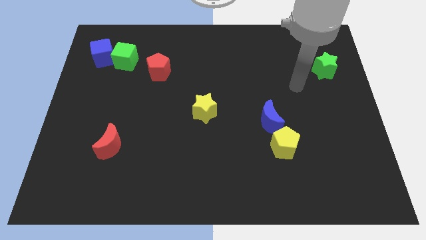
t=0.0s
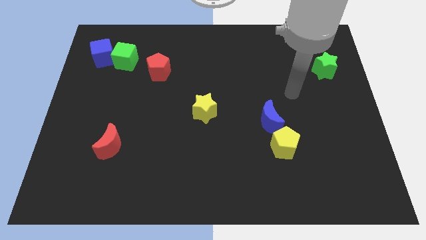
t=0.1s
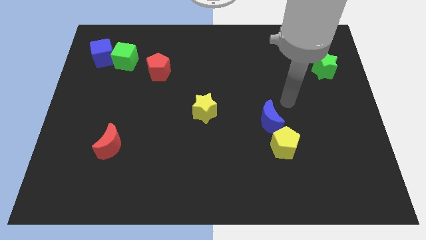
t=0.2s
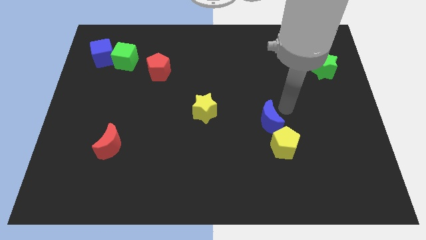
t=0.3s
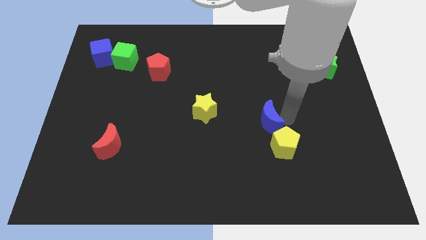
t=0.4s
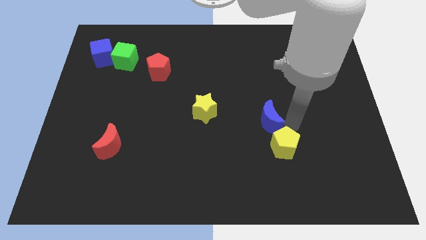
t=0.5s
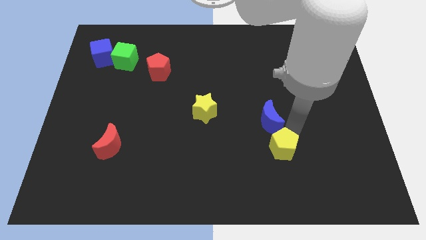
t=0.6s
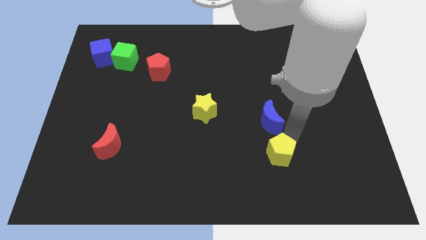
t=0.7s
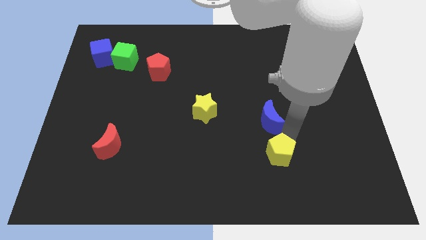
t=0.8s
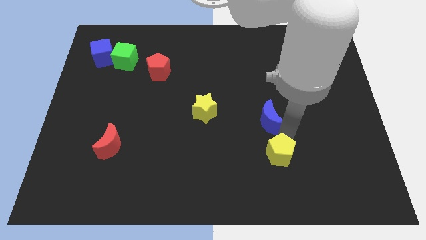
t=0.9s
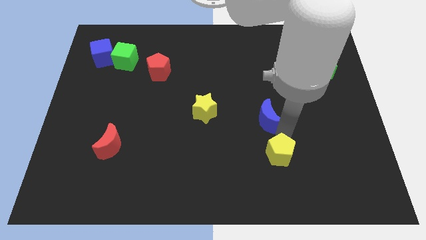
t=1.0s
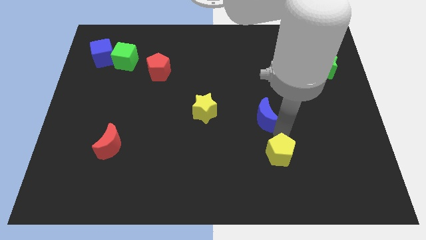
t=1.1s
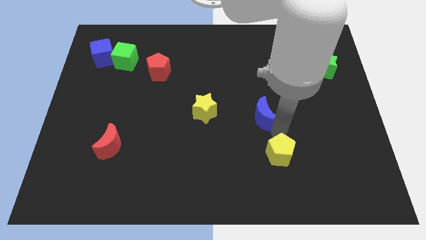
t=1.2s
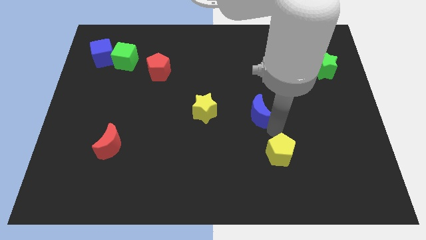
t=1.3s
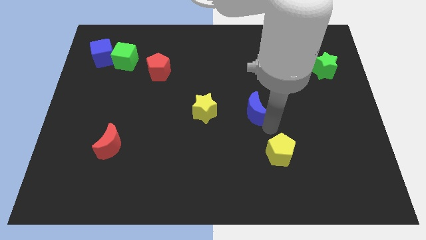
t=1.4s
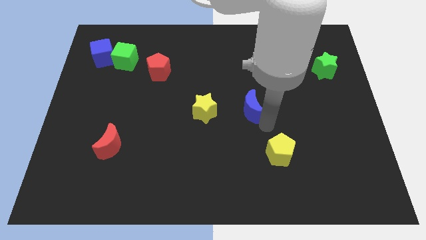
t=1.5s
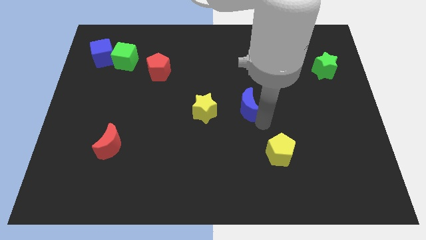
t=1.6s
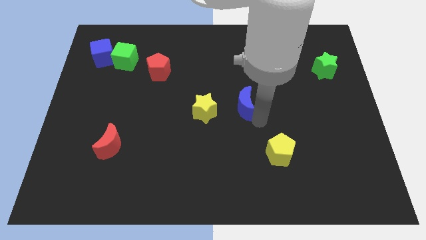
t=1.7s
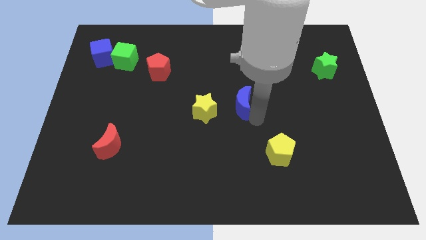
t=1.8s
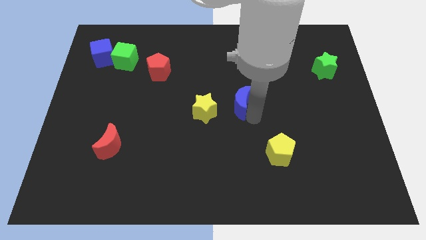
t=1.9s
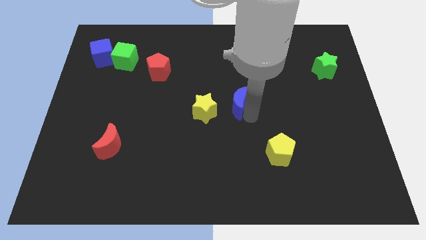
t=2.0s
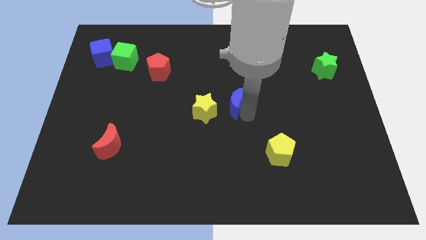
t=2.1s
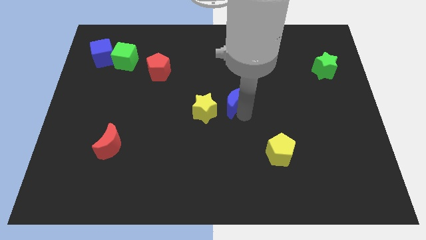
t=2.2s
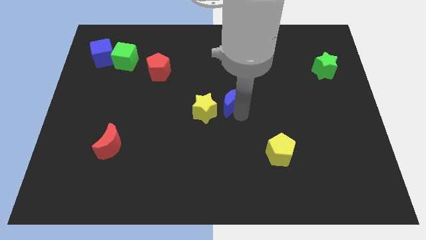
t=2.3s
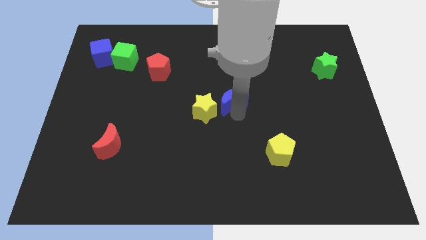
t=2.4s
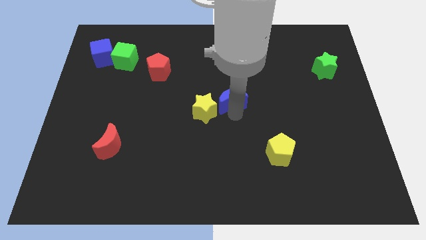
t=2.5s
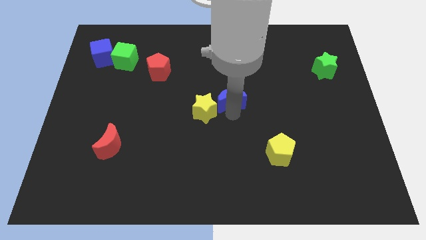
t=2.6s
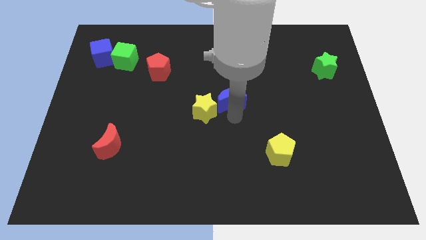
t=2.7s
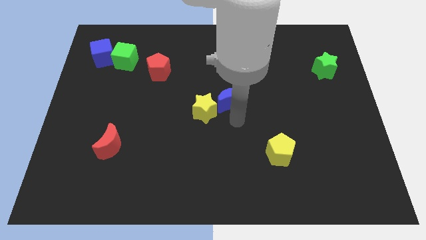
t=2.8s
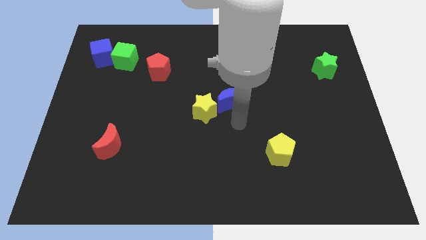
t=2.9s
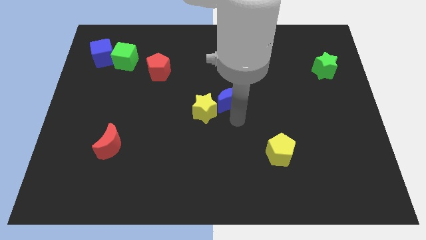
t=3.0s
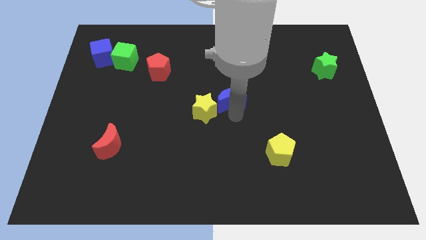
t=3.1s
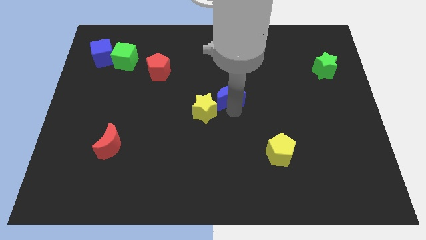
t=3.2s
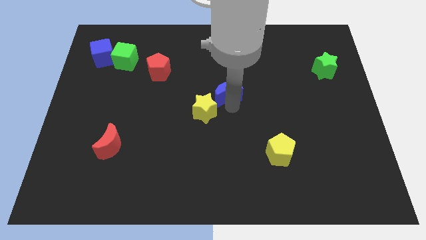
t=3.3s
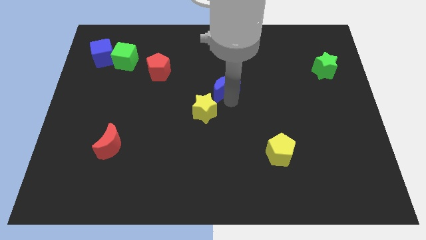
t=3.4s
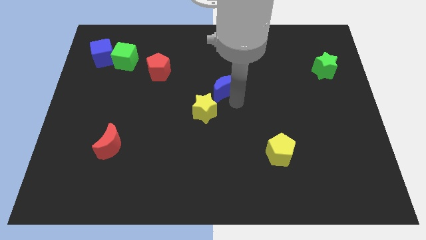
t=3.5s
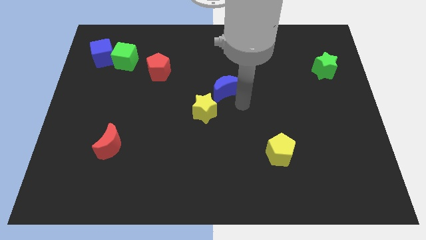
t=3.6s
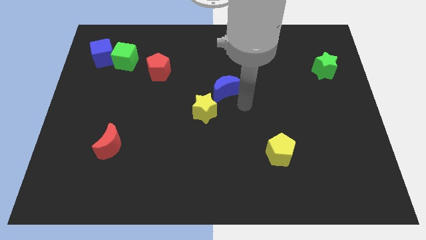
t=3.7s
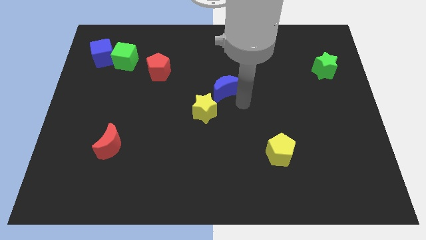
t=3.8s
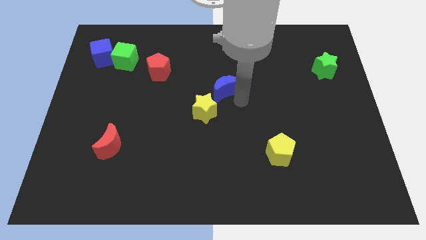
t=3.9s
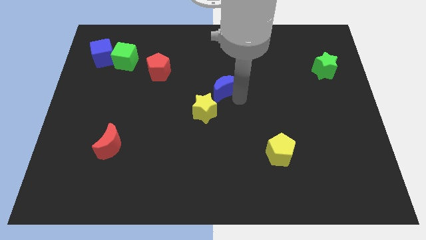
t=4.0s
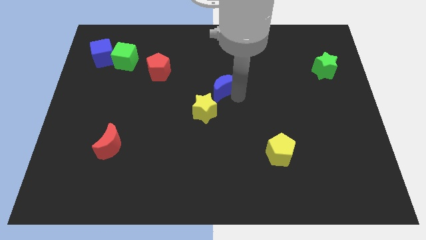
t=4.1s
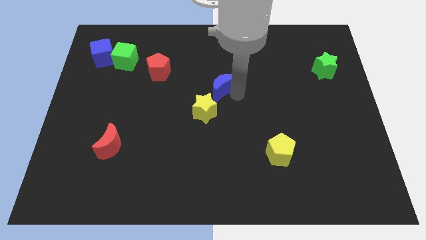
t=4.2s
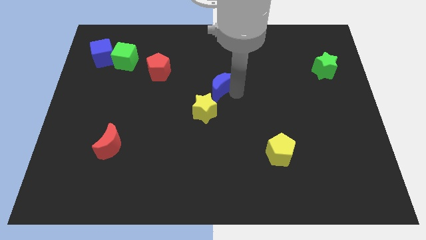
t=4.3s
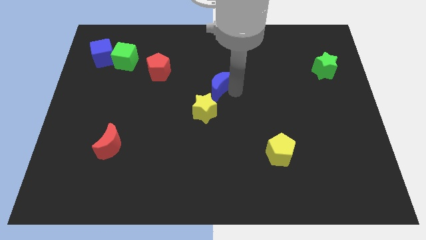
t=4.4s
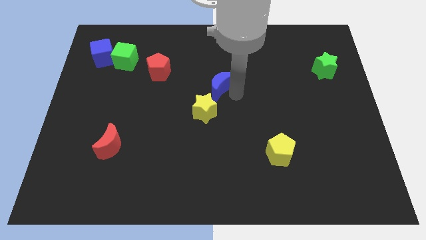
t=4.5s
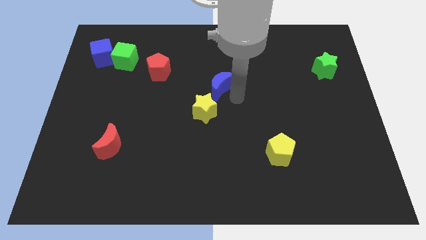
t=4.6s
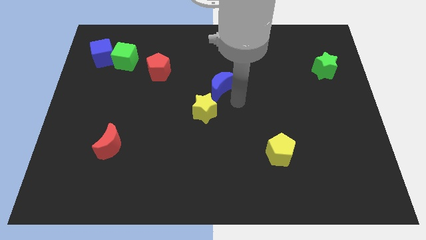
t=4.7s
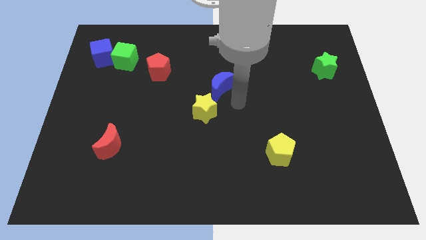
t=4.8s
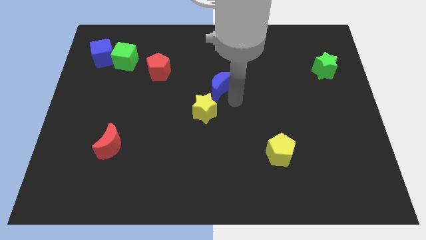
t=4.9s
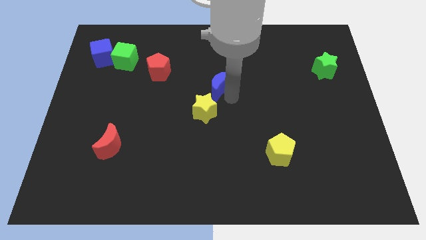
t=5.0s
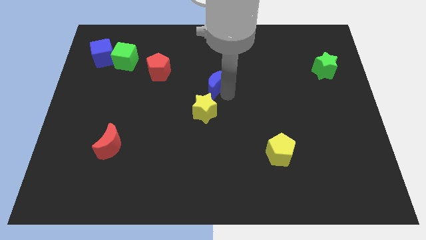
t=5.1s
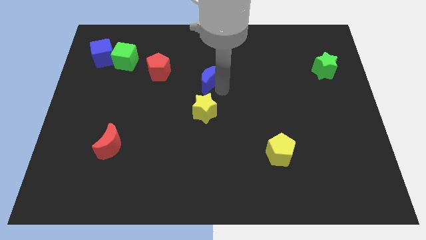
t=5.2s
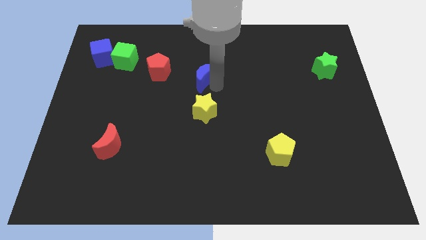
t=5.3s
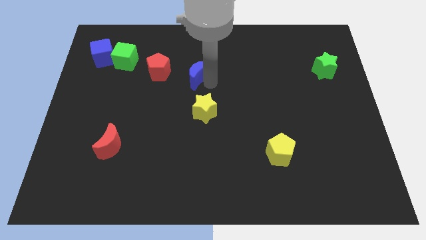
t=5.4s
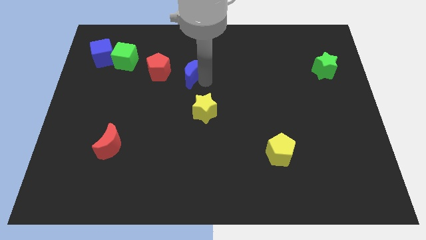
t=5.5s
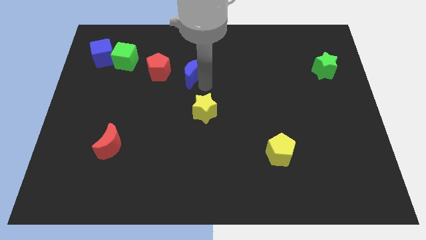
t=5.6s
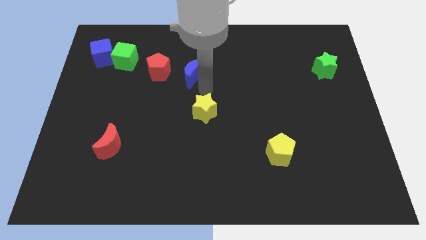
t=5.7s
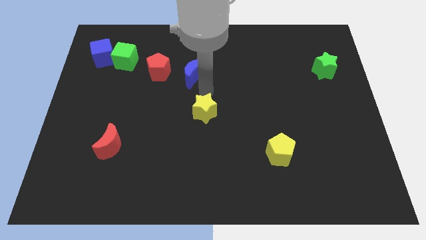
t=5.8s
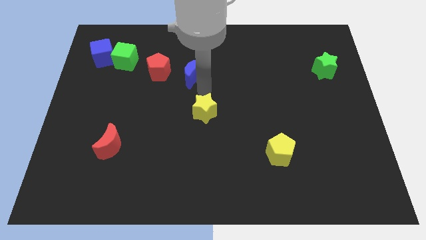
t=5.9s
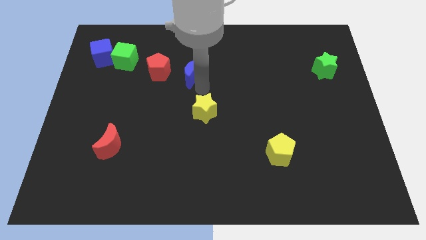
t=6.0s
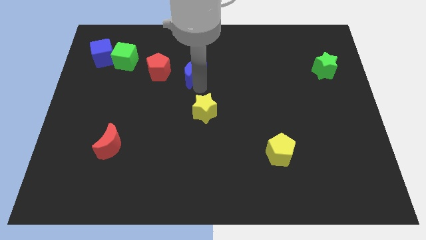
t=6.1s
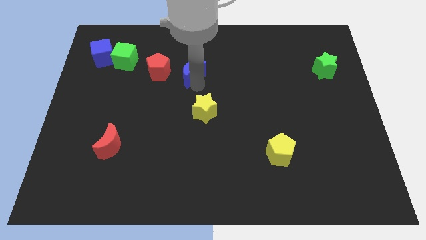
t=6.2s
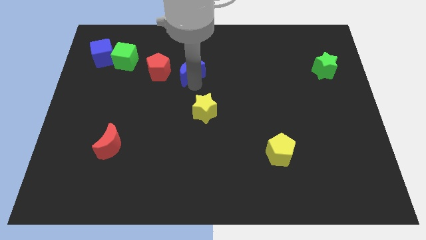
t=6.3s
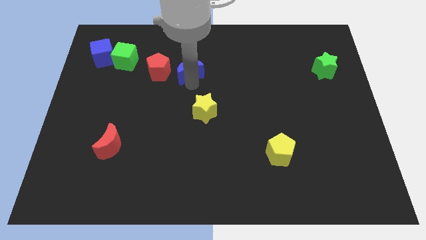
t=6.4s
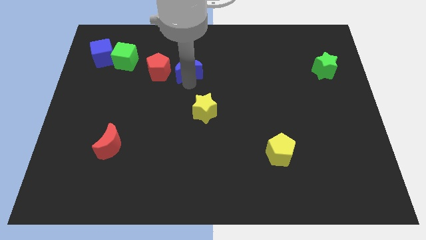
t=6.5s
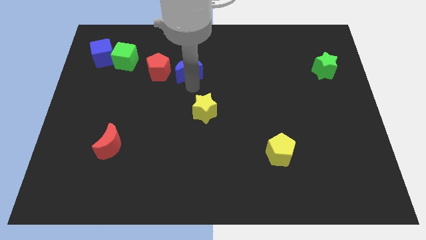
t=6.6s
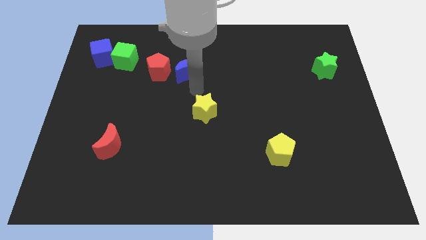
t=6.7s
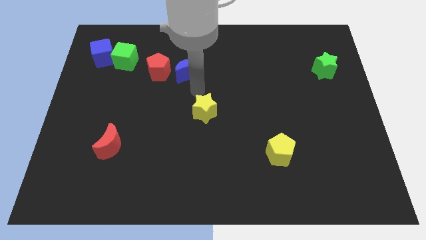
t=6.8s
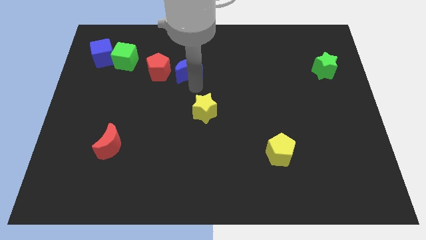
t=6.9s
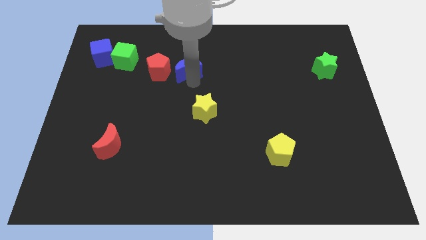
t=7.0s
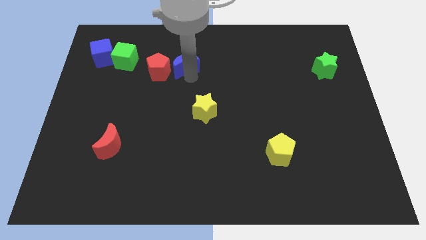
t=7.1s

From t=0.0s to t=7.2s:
slide the blue moon diagonally up and to the right of the red pentagon

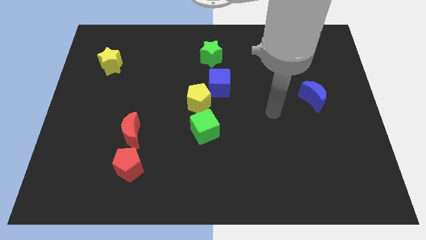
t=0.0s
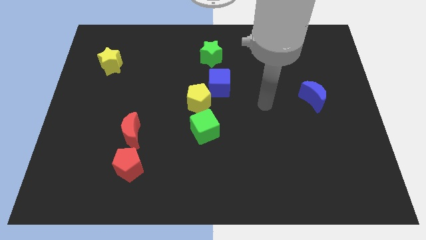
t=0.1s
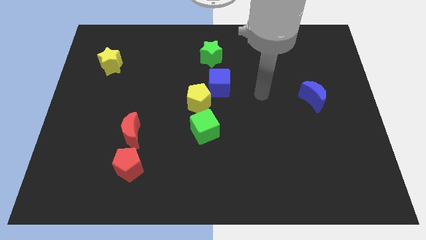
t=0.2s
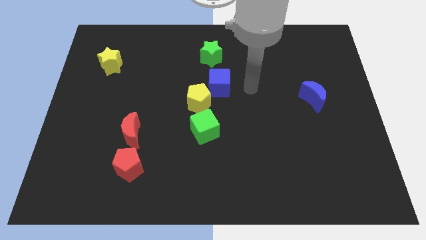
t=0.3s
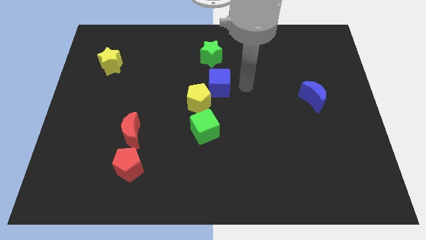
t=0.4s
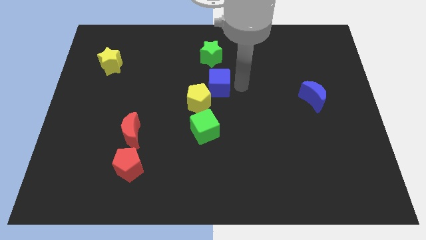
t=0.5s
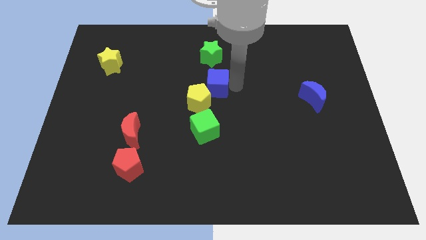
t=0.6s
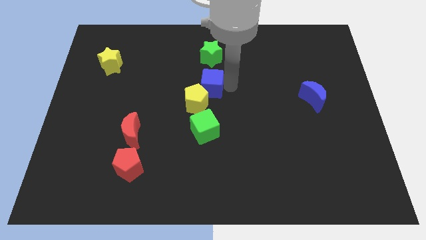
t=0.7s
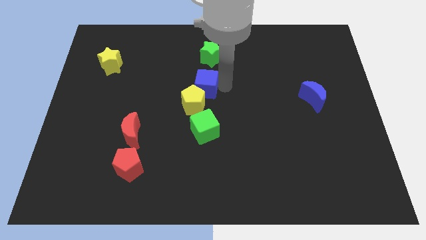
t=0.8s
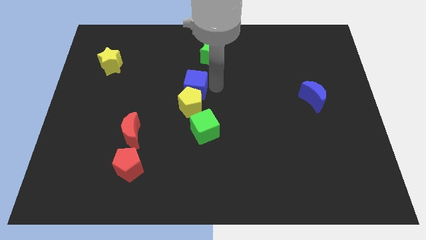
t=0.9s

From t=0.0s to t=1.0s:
push the blue cube to the top left of the yellow pentagon
